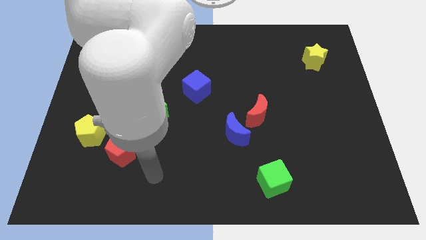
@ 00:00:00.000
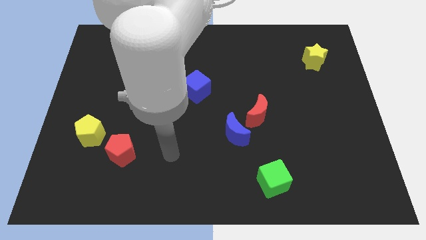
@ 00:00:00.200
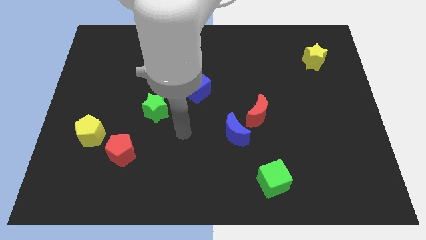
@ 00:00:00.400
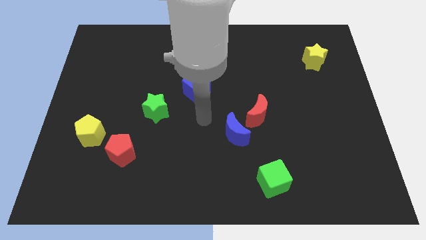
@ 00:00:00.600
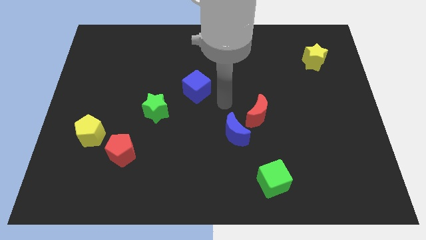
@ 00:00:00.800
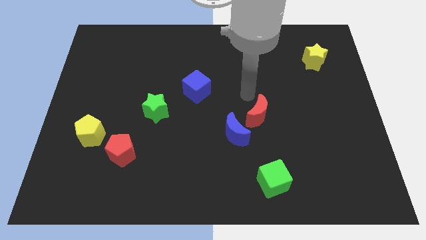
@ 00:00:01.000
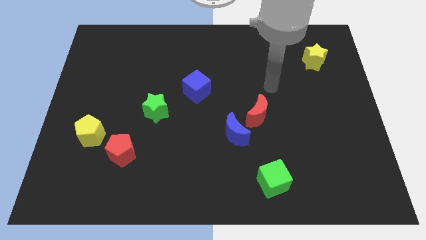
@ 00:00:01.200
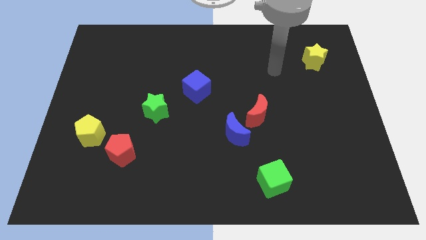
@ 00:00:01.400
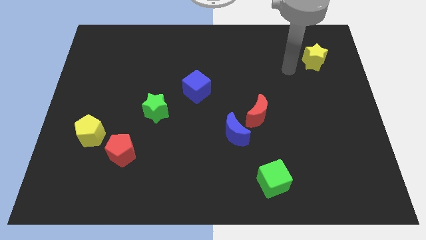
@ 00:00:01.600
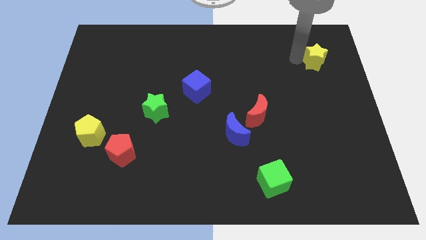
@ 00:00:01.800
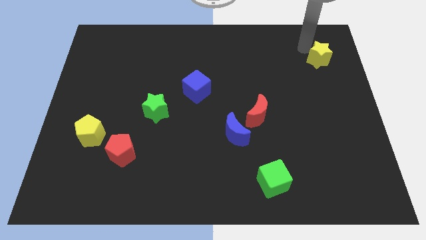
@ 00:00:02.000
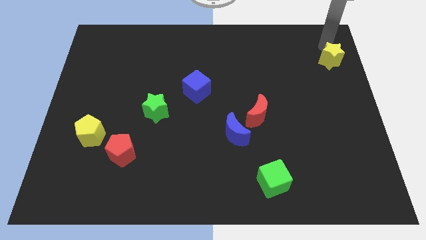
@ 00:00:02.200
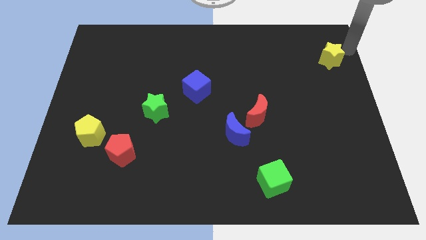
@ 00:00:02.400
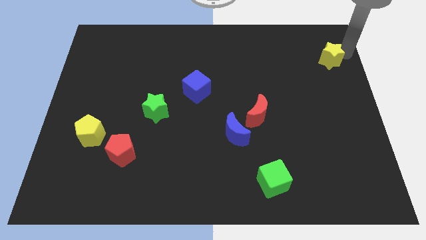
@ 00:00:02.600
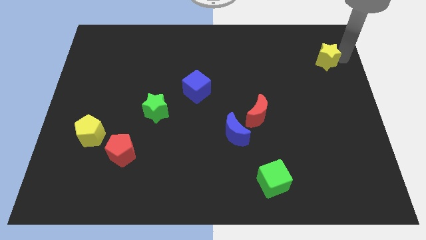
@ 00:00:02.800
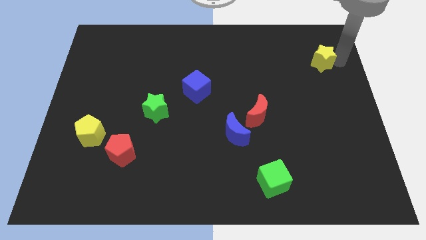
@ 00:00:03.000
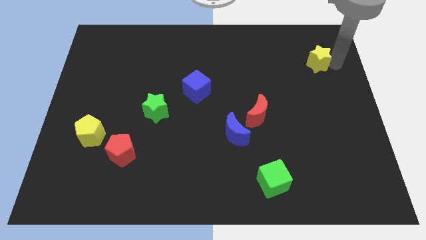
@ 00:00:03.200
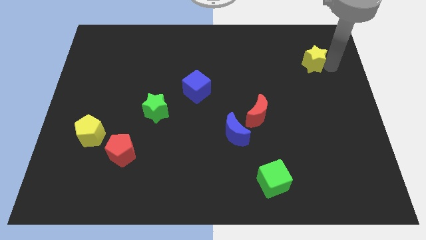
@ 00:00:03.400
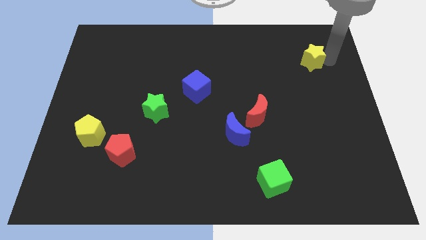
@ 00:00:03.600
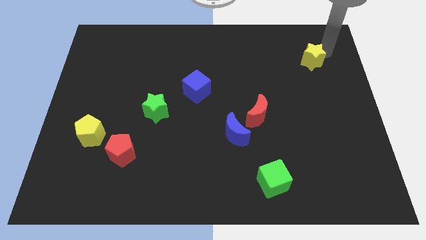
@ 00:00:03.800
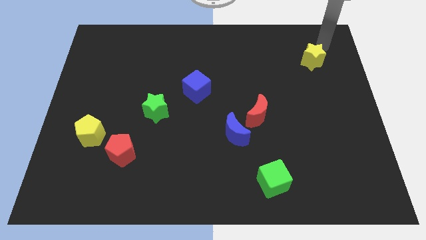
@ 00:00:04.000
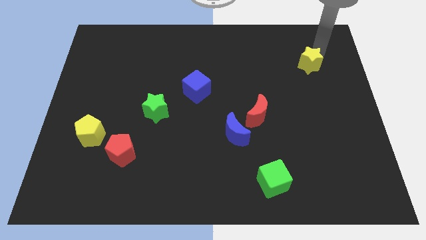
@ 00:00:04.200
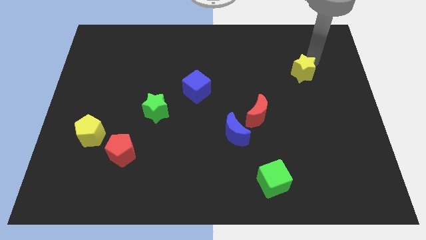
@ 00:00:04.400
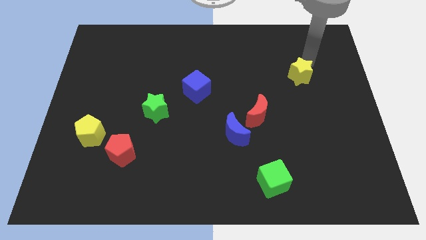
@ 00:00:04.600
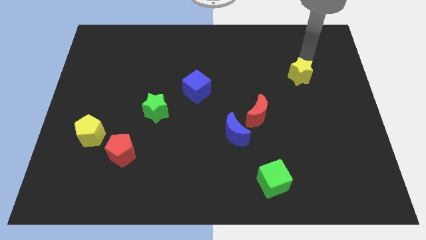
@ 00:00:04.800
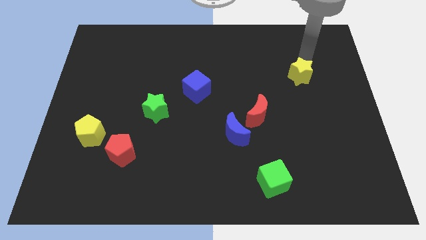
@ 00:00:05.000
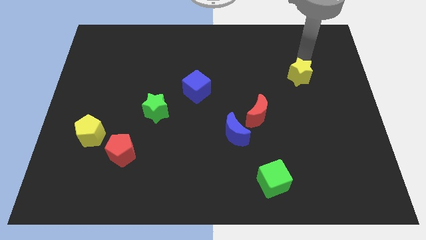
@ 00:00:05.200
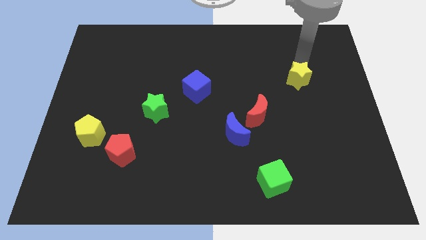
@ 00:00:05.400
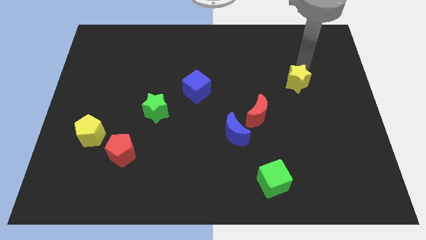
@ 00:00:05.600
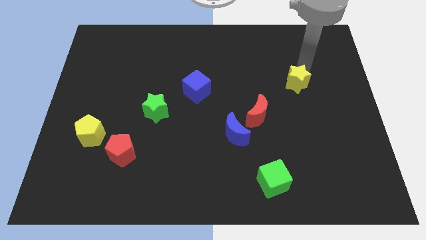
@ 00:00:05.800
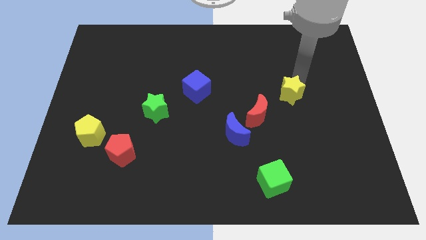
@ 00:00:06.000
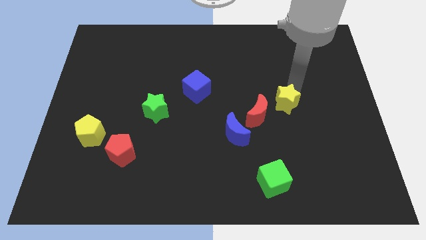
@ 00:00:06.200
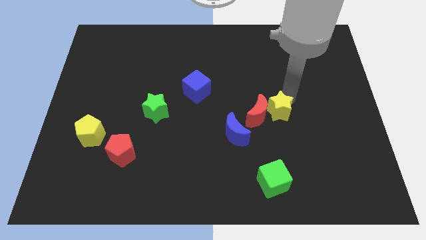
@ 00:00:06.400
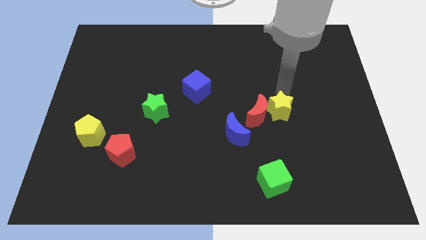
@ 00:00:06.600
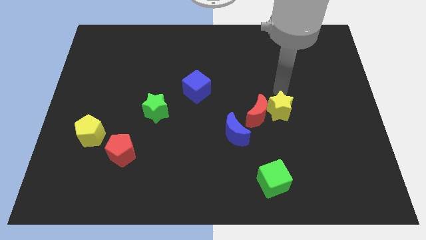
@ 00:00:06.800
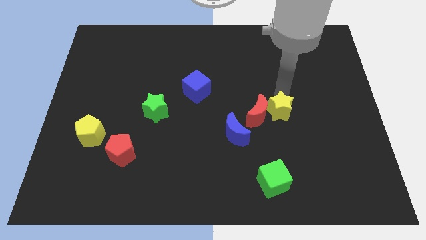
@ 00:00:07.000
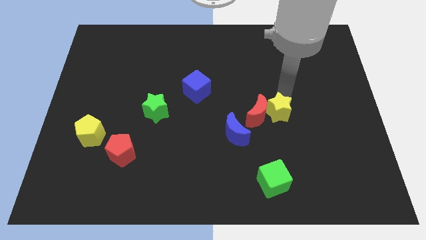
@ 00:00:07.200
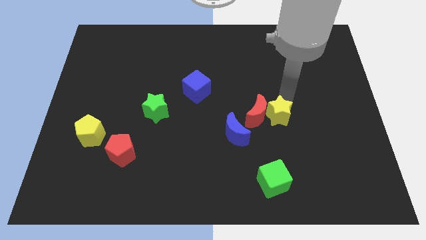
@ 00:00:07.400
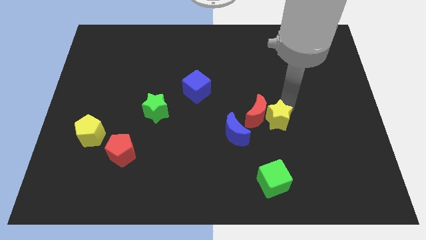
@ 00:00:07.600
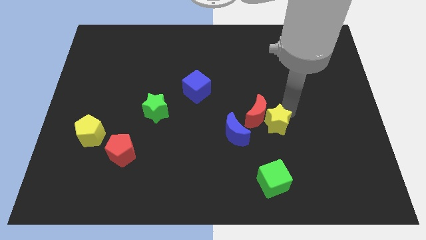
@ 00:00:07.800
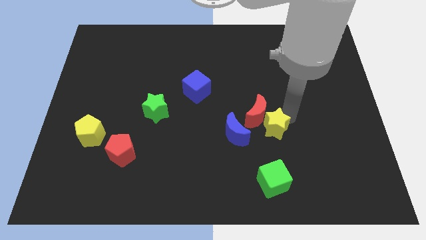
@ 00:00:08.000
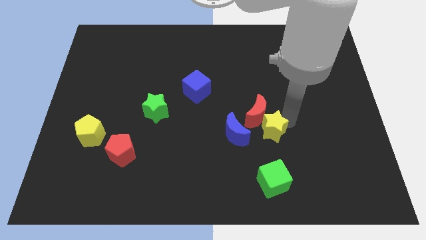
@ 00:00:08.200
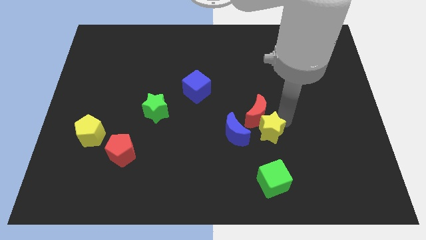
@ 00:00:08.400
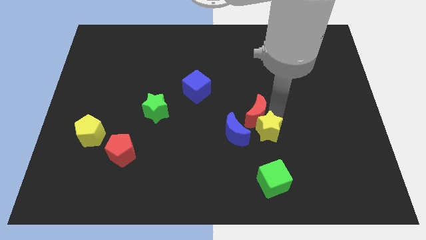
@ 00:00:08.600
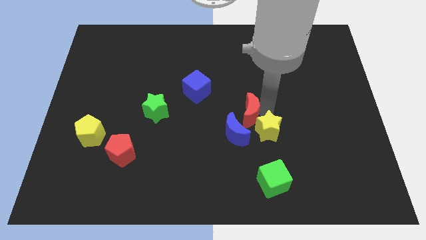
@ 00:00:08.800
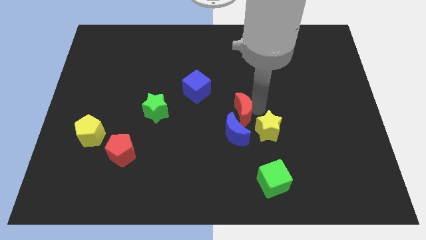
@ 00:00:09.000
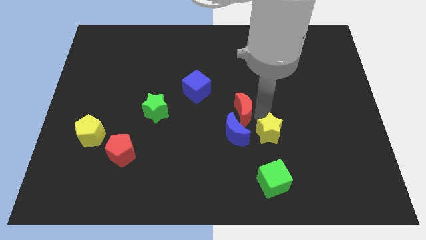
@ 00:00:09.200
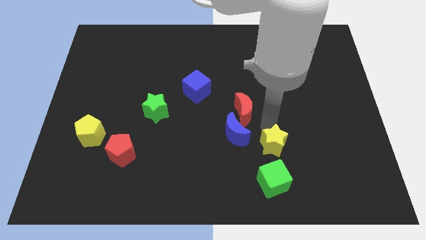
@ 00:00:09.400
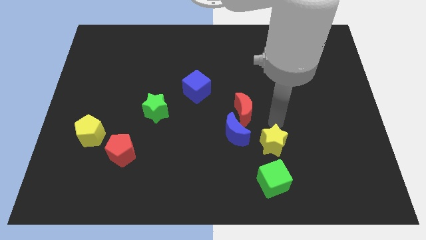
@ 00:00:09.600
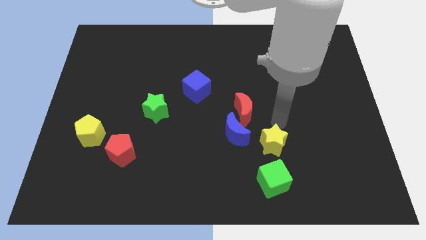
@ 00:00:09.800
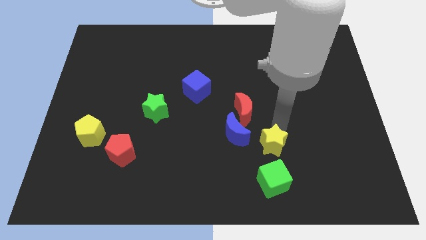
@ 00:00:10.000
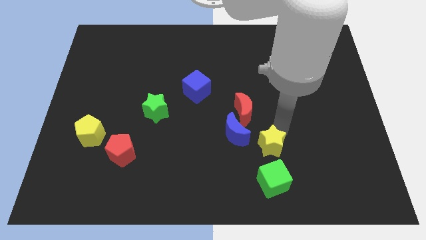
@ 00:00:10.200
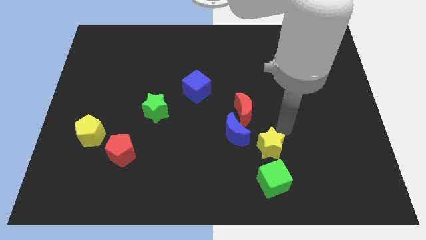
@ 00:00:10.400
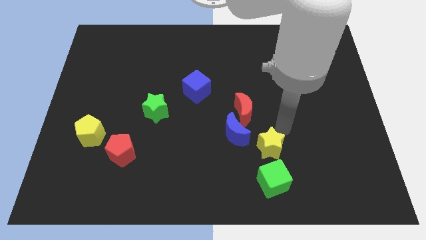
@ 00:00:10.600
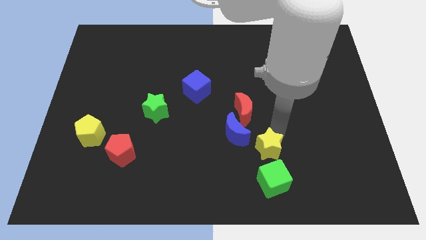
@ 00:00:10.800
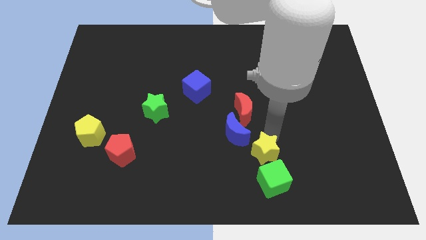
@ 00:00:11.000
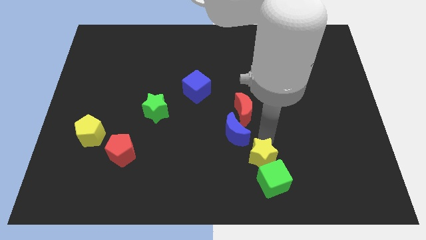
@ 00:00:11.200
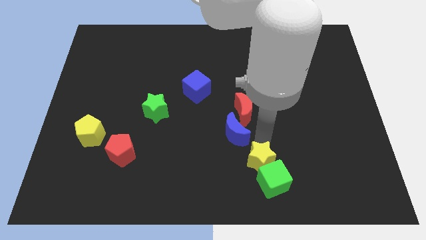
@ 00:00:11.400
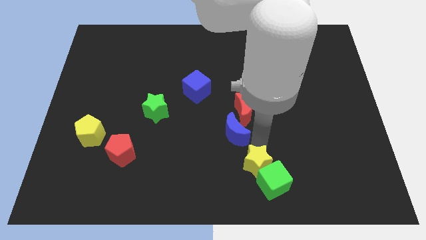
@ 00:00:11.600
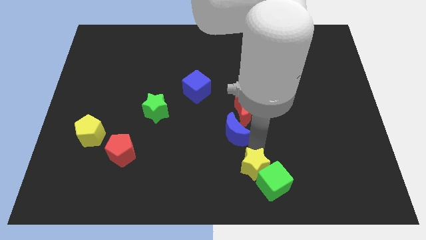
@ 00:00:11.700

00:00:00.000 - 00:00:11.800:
put the yellow star to the bottom side
